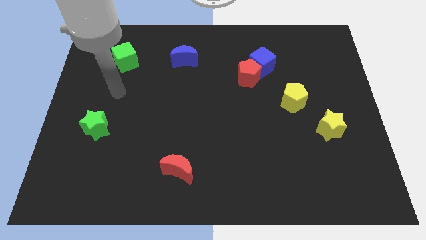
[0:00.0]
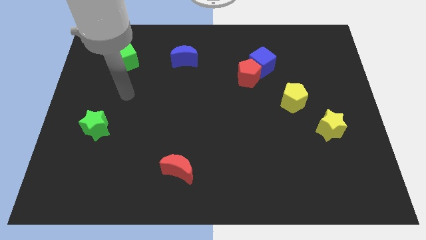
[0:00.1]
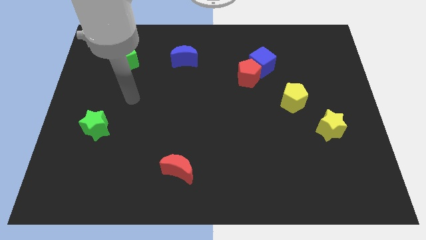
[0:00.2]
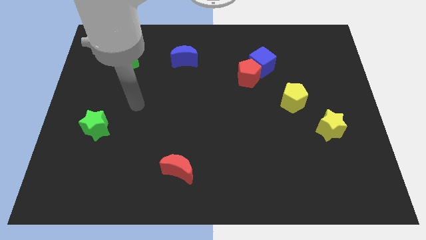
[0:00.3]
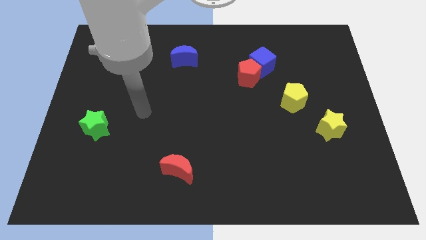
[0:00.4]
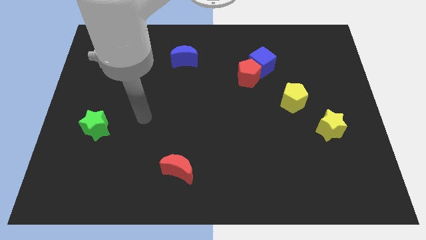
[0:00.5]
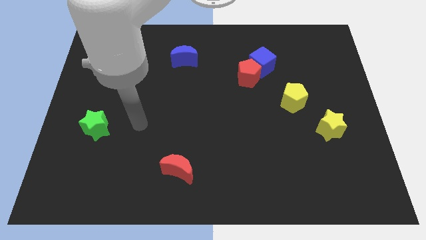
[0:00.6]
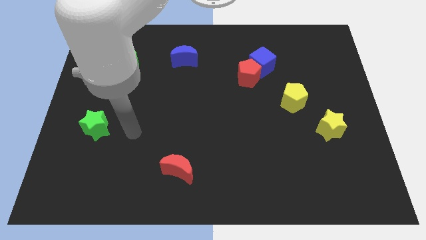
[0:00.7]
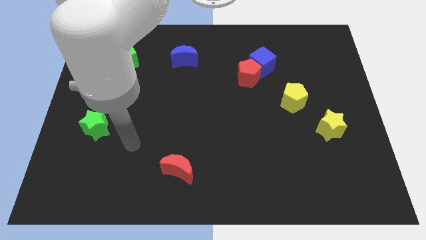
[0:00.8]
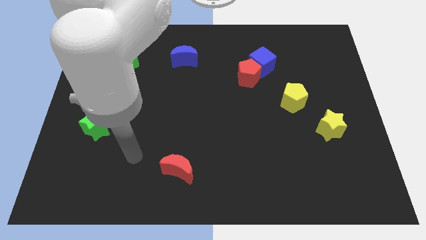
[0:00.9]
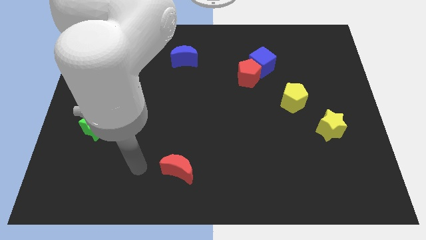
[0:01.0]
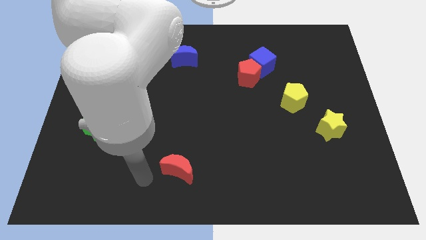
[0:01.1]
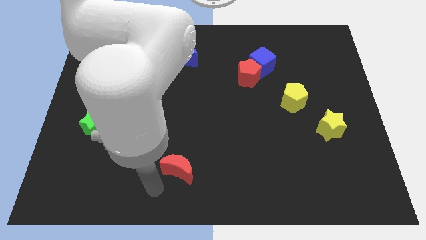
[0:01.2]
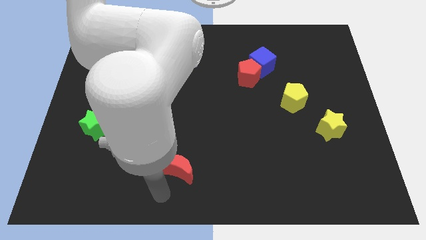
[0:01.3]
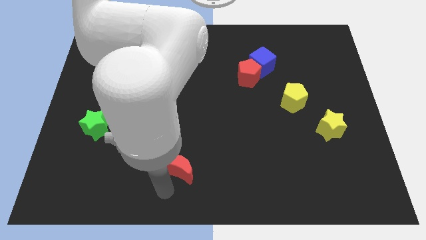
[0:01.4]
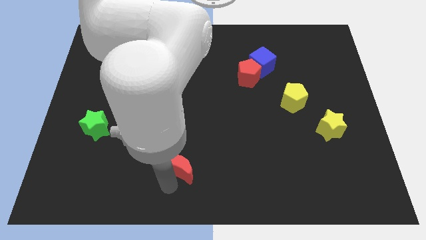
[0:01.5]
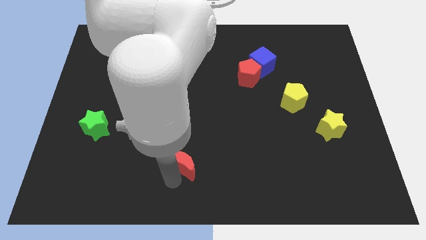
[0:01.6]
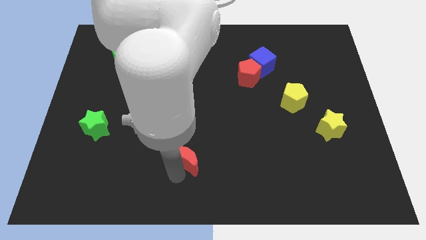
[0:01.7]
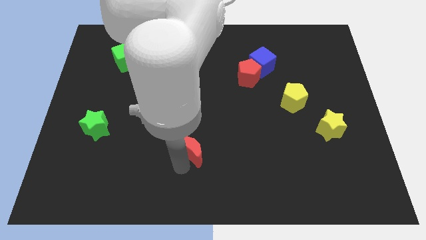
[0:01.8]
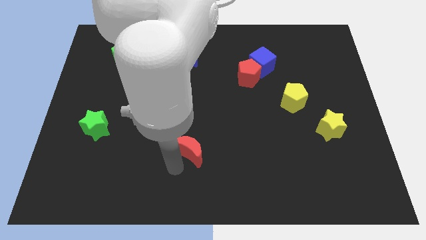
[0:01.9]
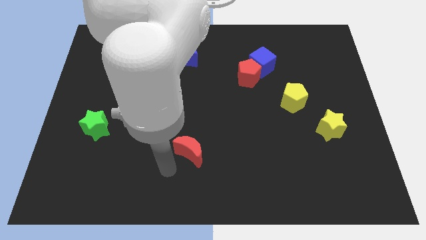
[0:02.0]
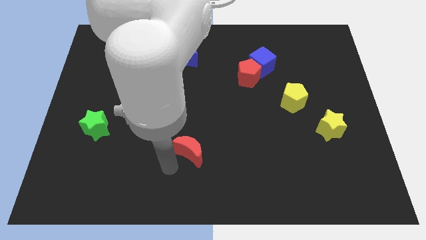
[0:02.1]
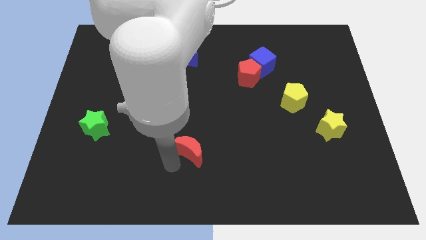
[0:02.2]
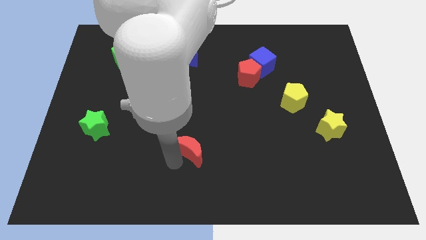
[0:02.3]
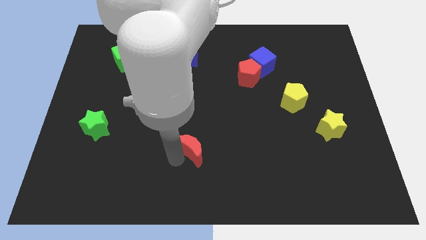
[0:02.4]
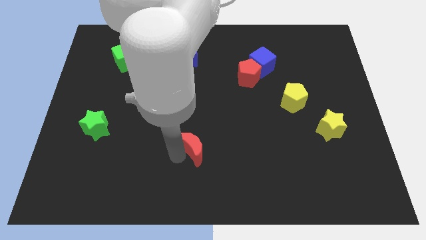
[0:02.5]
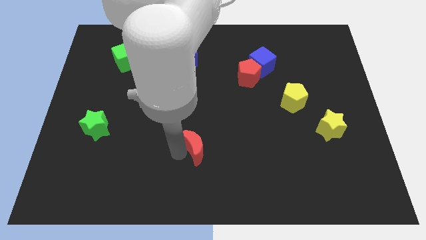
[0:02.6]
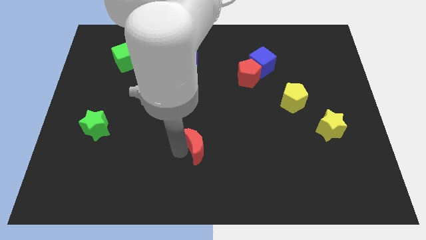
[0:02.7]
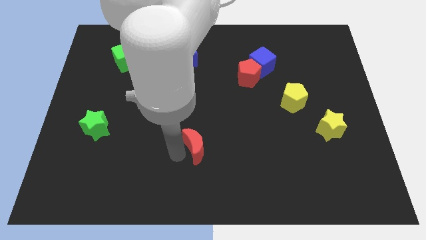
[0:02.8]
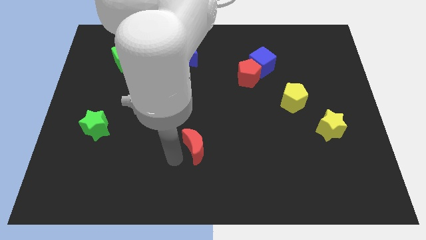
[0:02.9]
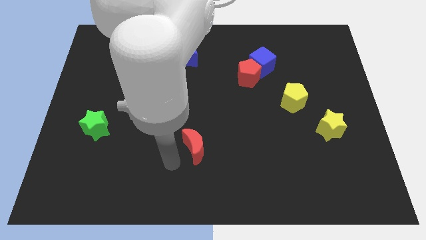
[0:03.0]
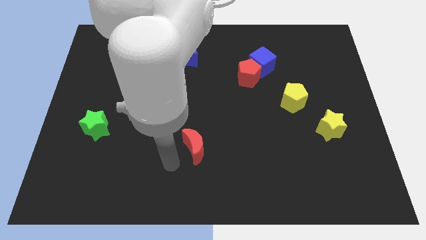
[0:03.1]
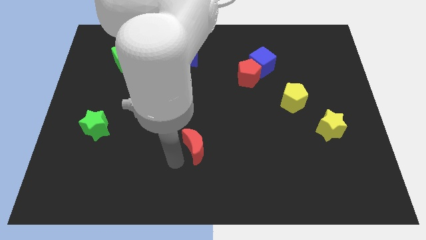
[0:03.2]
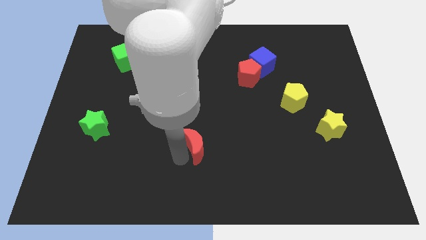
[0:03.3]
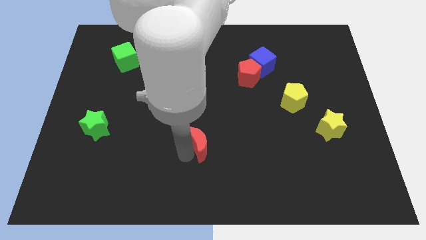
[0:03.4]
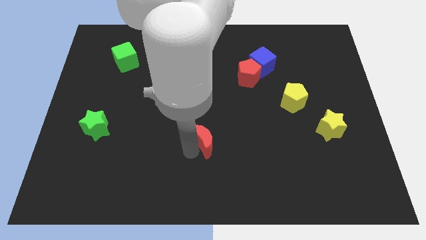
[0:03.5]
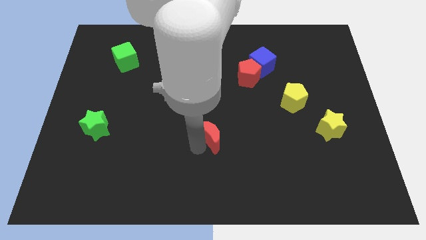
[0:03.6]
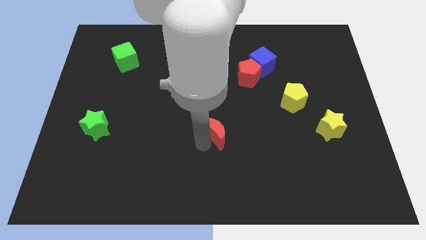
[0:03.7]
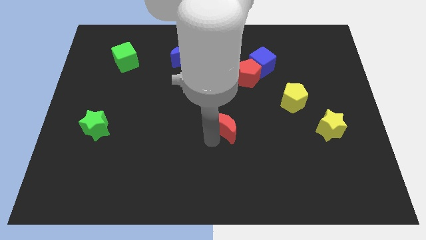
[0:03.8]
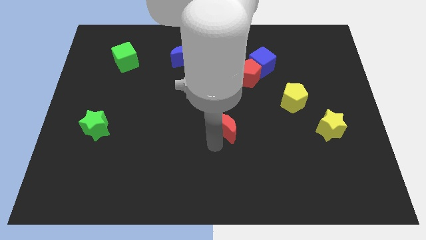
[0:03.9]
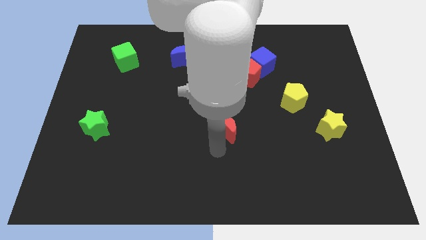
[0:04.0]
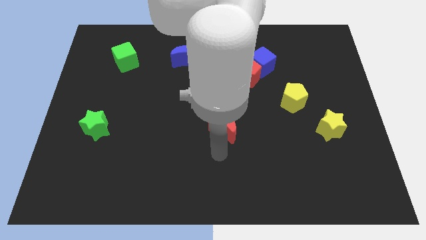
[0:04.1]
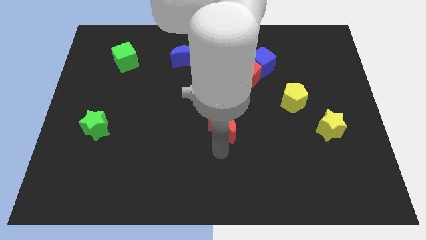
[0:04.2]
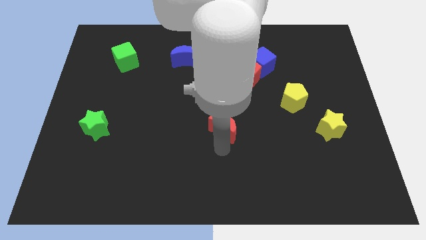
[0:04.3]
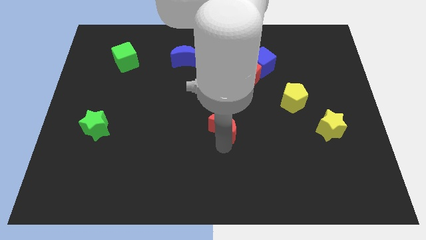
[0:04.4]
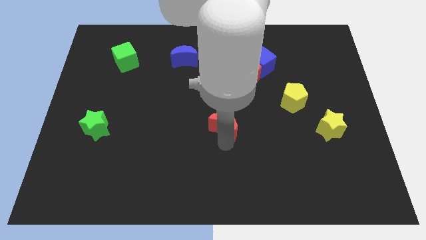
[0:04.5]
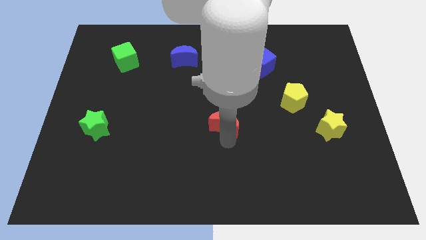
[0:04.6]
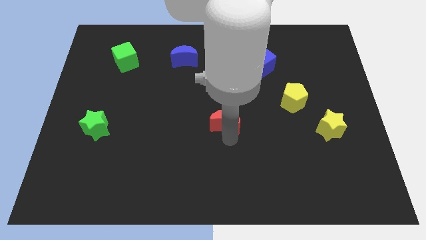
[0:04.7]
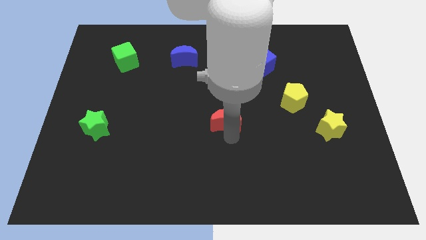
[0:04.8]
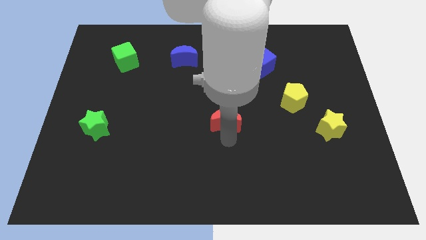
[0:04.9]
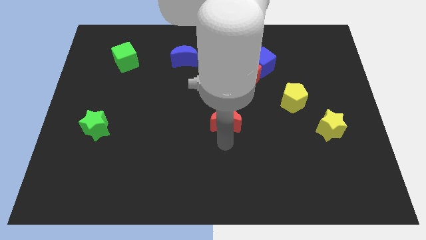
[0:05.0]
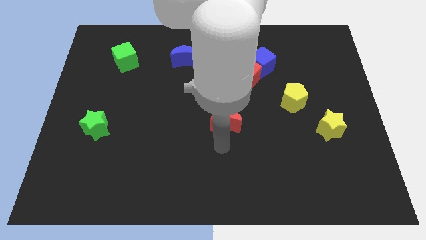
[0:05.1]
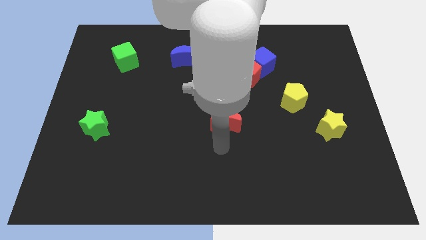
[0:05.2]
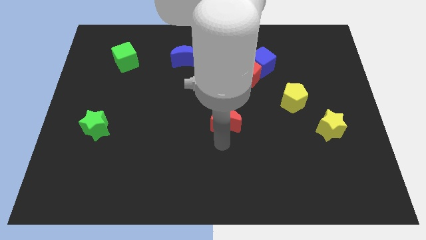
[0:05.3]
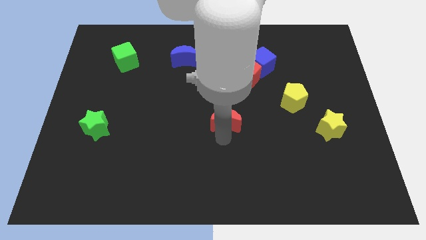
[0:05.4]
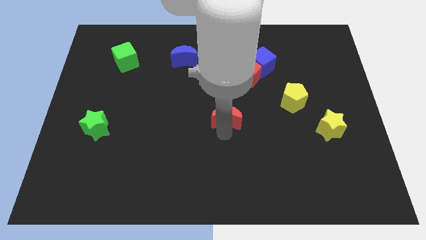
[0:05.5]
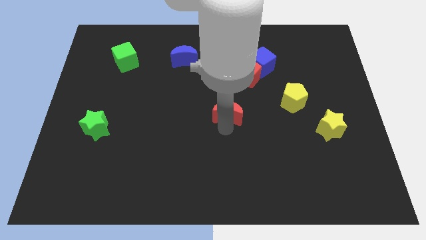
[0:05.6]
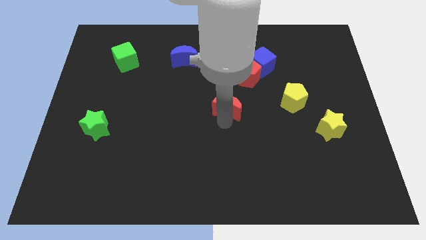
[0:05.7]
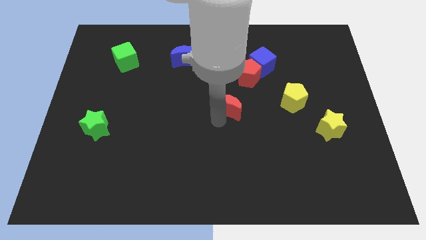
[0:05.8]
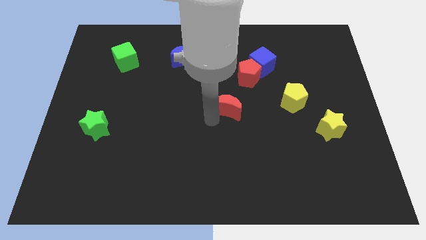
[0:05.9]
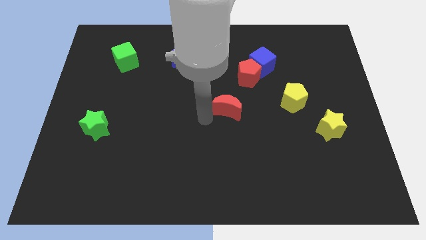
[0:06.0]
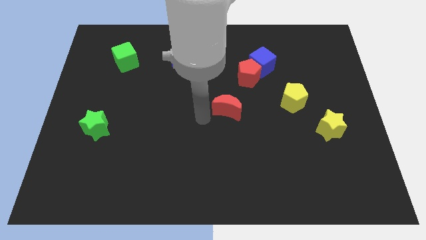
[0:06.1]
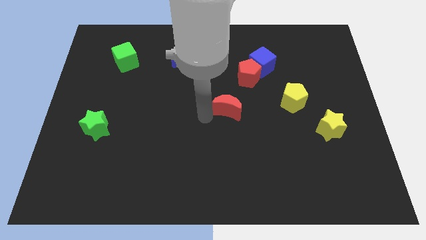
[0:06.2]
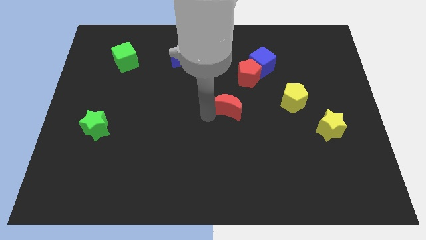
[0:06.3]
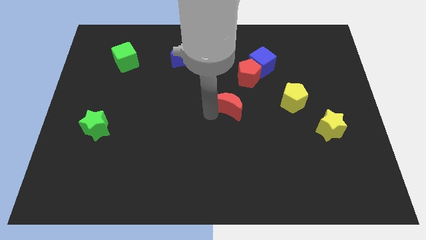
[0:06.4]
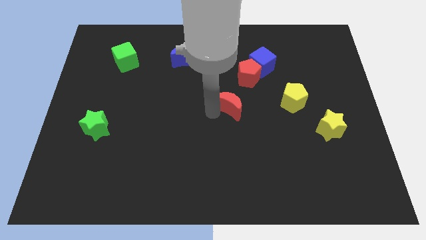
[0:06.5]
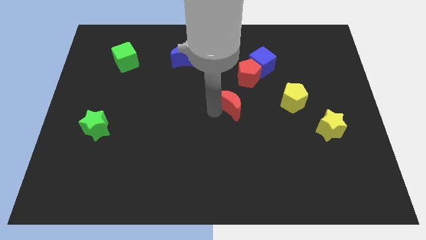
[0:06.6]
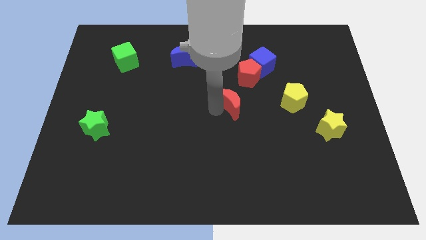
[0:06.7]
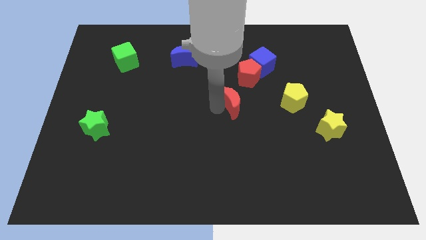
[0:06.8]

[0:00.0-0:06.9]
push the red moon up and to the right diagonally

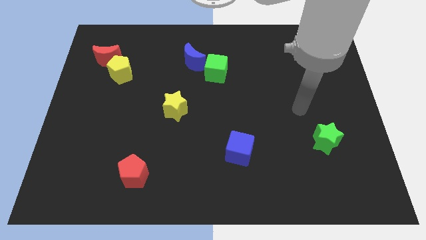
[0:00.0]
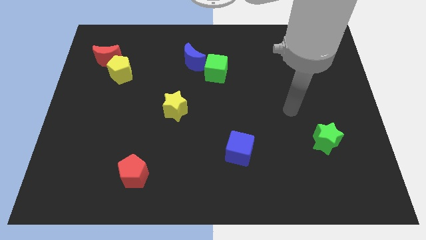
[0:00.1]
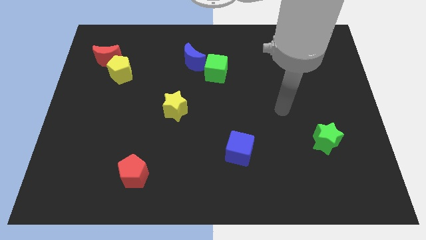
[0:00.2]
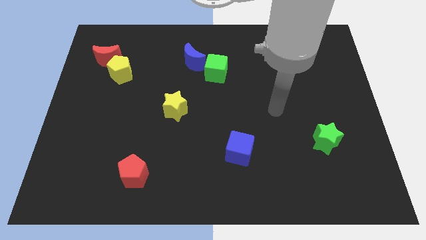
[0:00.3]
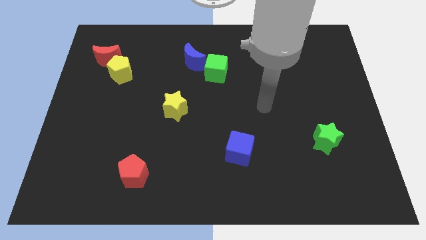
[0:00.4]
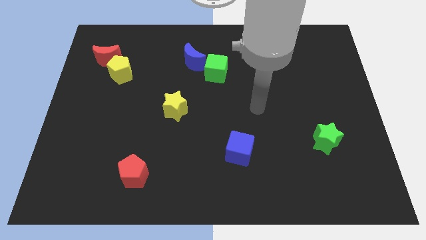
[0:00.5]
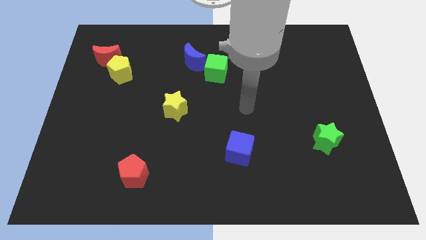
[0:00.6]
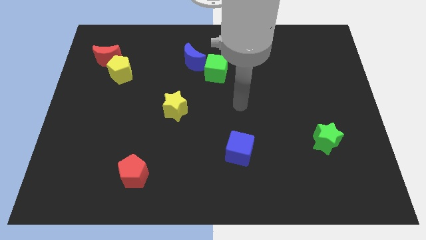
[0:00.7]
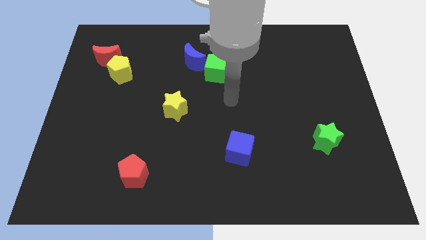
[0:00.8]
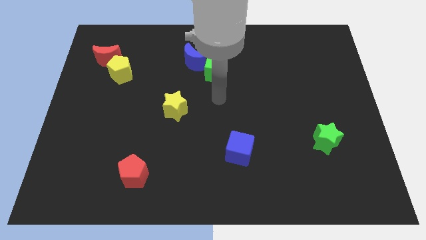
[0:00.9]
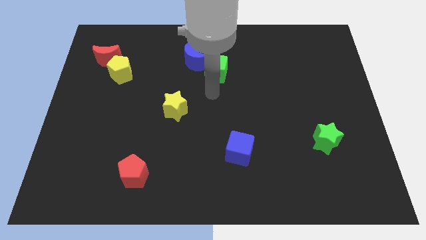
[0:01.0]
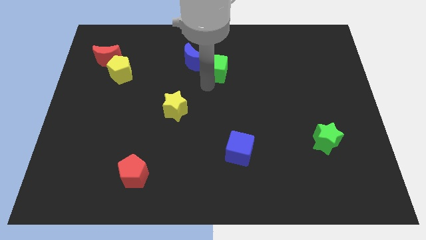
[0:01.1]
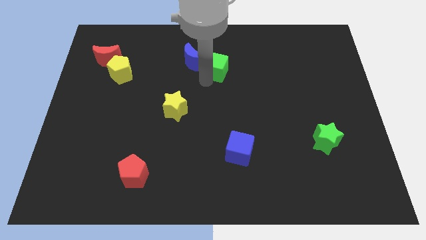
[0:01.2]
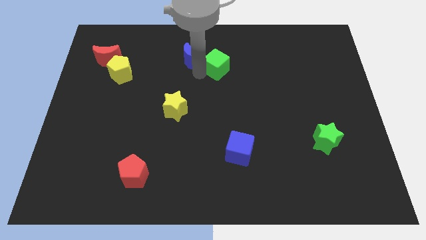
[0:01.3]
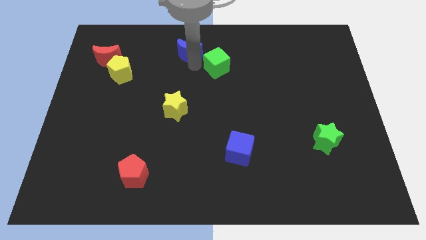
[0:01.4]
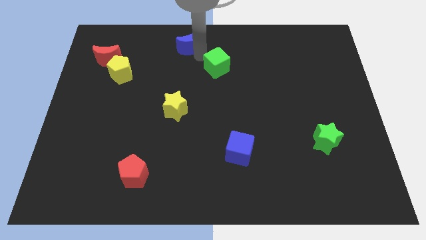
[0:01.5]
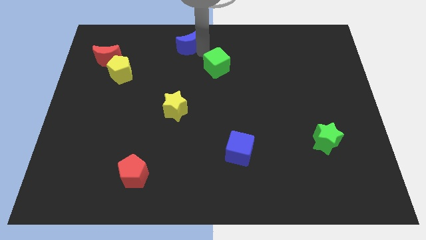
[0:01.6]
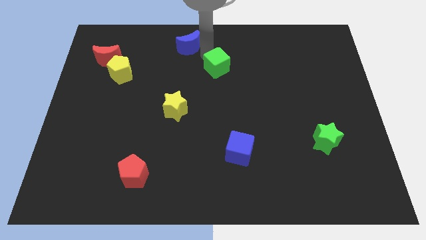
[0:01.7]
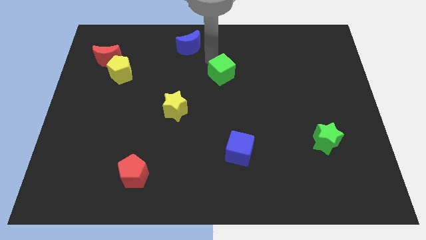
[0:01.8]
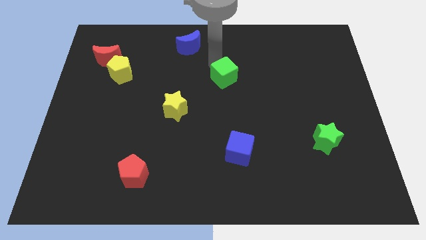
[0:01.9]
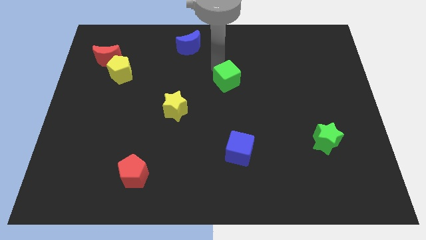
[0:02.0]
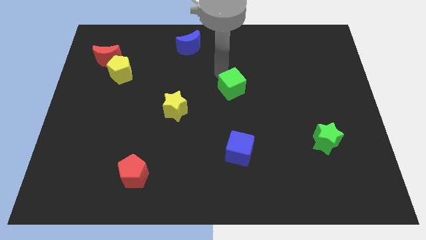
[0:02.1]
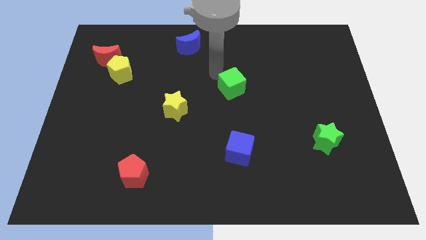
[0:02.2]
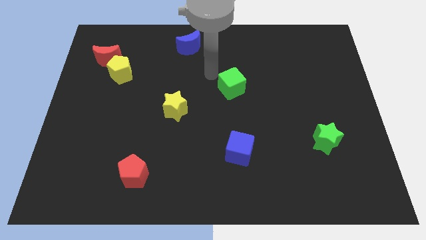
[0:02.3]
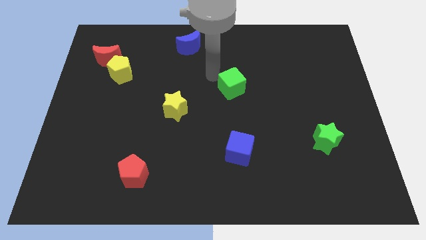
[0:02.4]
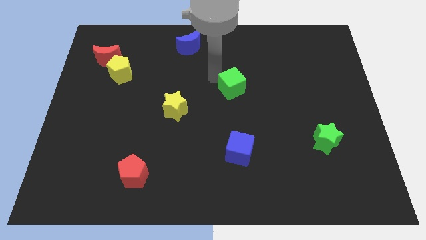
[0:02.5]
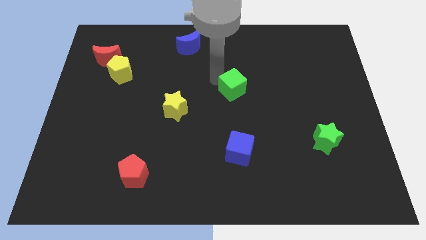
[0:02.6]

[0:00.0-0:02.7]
slide the green cube a little diagonally downwards and to the right
